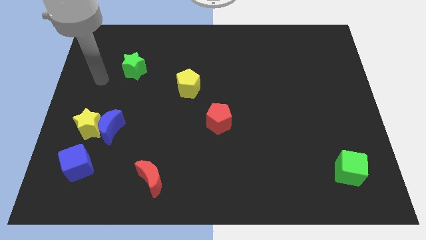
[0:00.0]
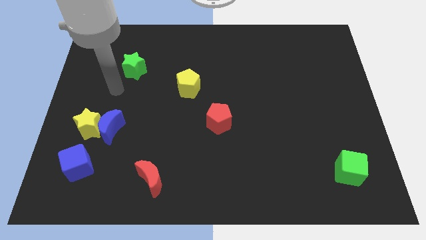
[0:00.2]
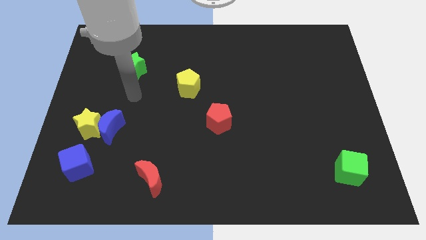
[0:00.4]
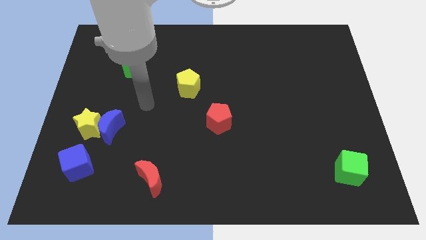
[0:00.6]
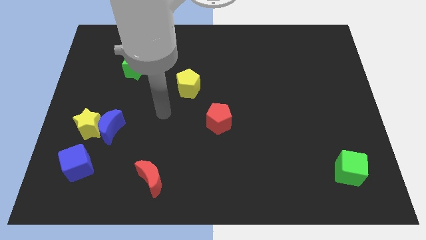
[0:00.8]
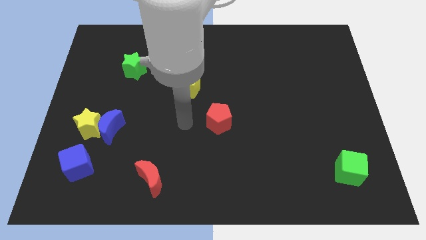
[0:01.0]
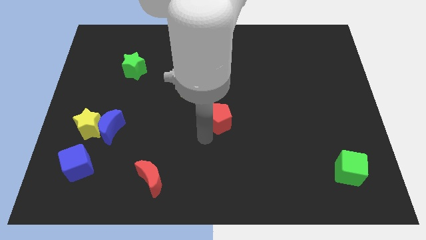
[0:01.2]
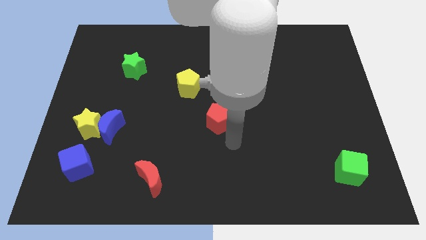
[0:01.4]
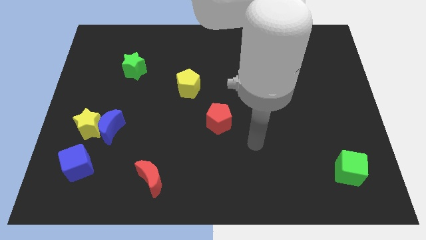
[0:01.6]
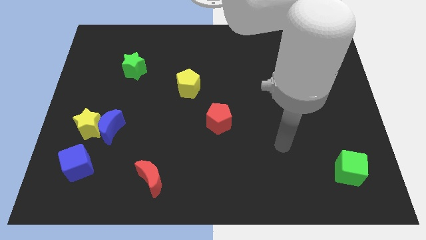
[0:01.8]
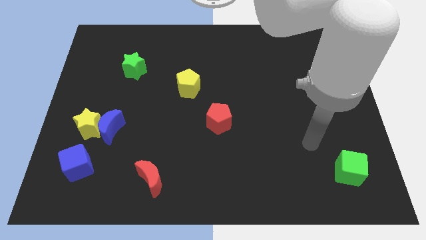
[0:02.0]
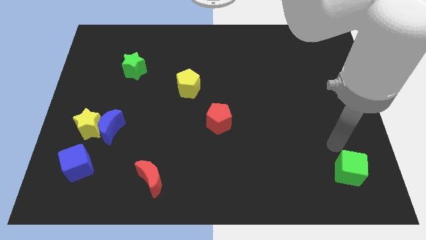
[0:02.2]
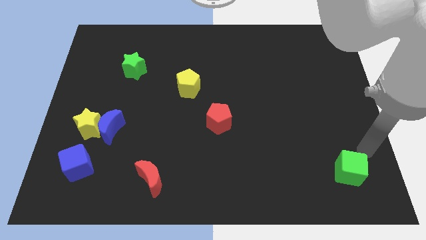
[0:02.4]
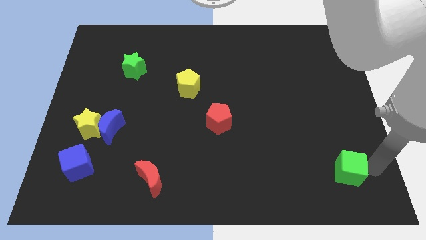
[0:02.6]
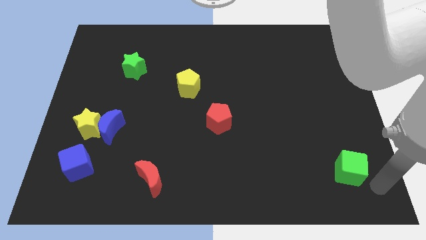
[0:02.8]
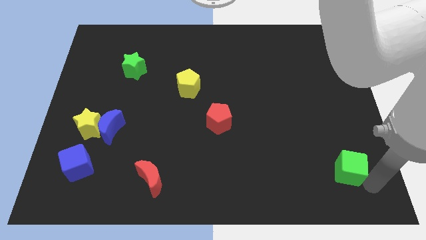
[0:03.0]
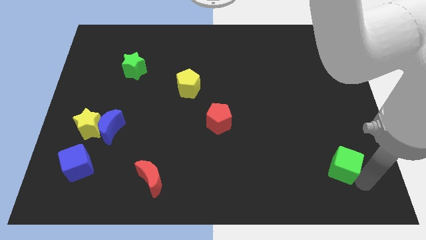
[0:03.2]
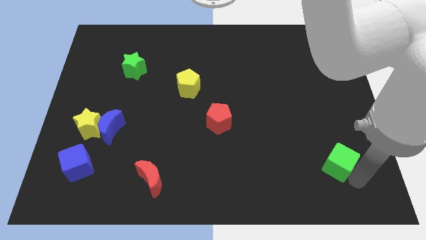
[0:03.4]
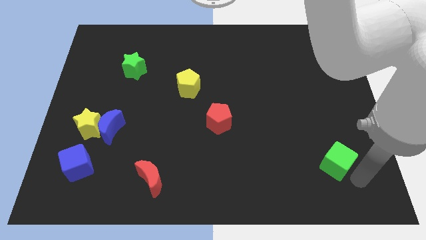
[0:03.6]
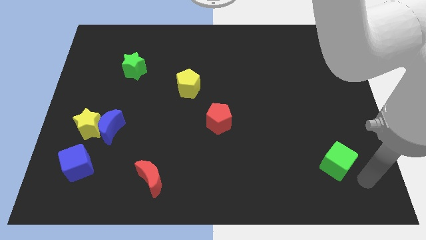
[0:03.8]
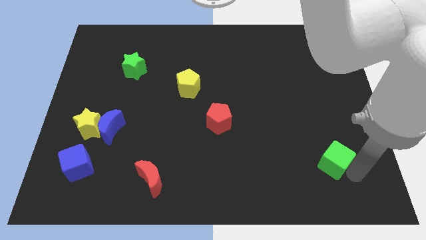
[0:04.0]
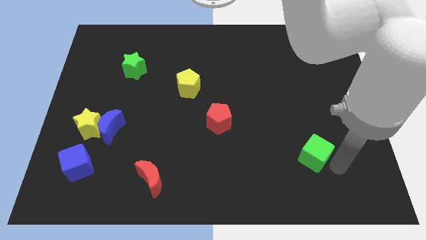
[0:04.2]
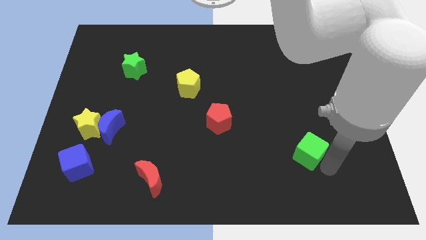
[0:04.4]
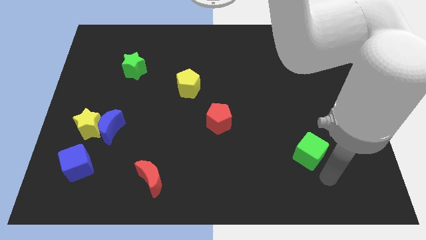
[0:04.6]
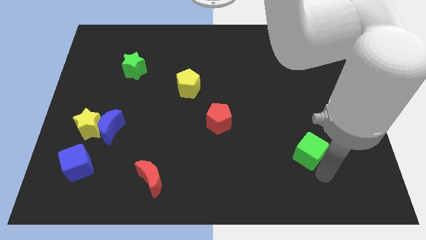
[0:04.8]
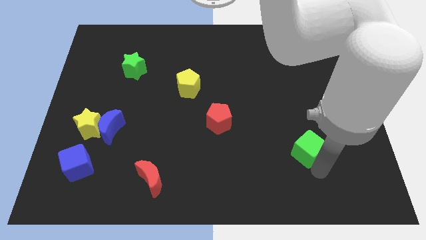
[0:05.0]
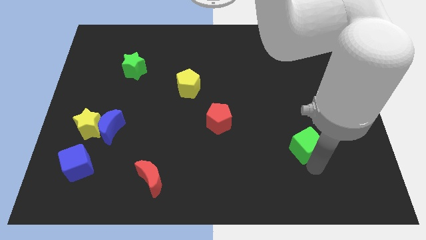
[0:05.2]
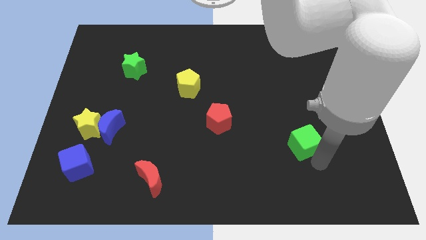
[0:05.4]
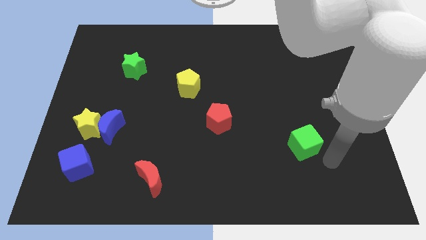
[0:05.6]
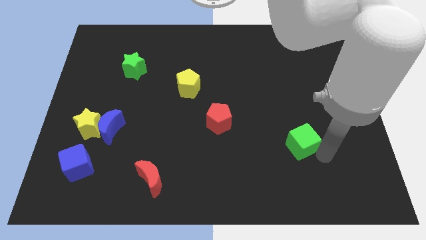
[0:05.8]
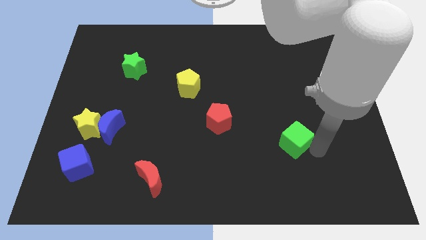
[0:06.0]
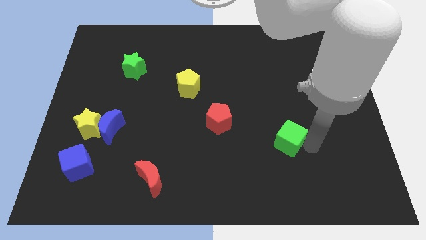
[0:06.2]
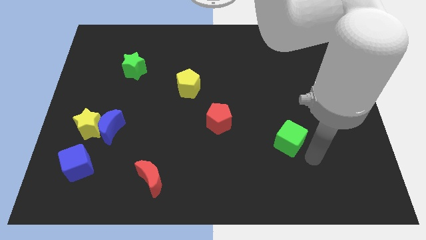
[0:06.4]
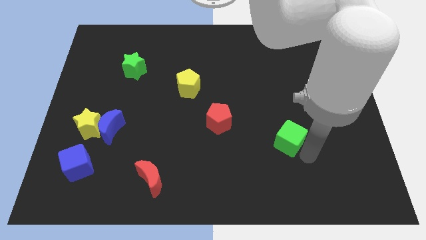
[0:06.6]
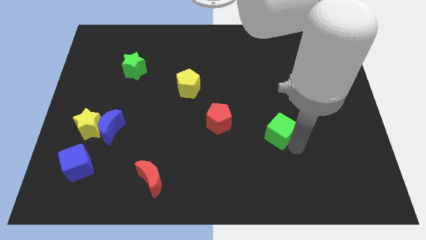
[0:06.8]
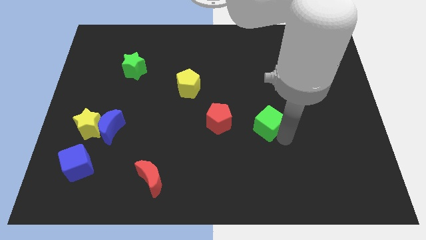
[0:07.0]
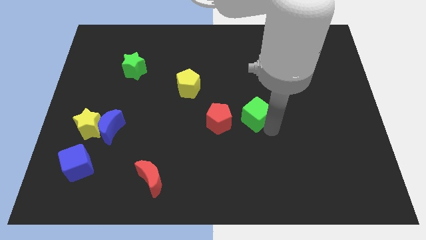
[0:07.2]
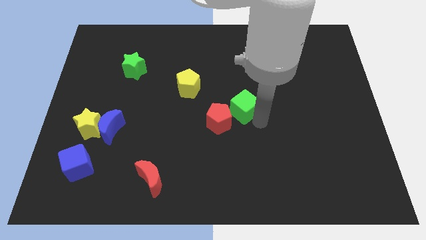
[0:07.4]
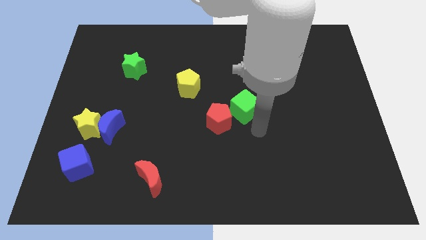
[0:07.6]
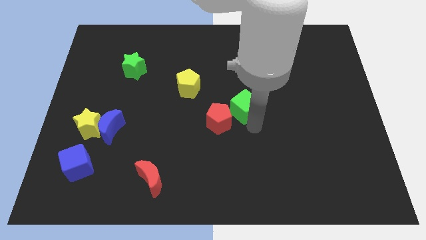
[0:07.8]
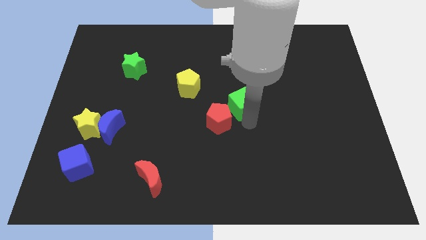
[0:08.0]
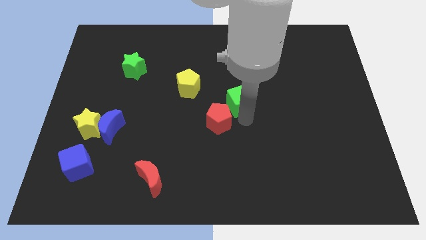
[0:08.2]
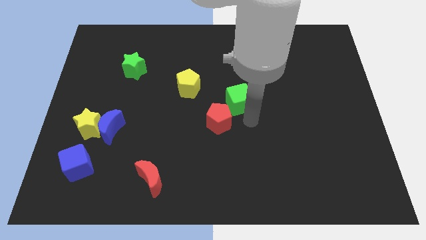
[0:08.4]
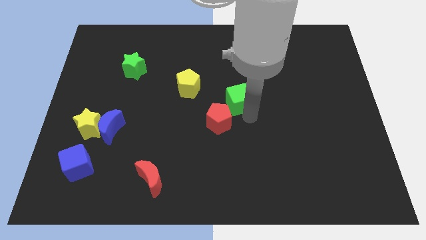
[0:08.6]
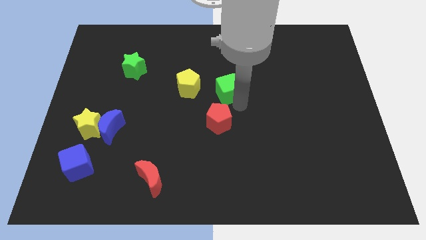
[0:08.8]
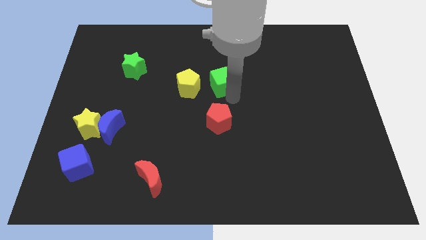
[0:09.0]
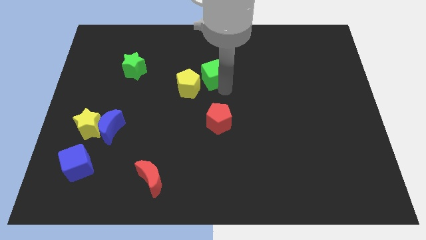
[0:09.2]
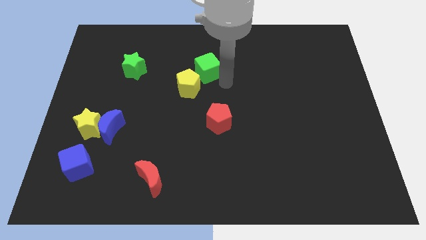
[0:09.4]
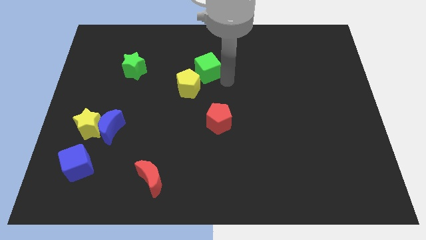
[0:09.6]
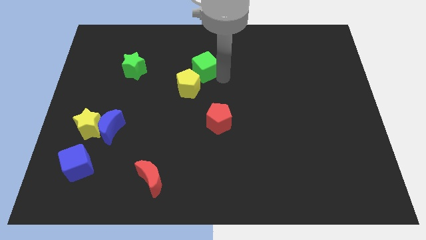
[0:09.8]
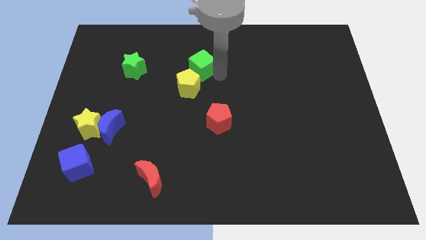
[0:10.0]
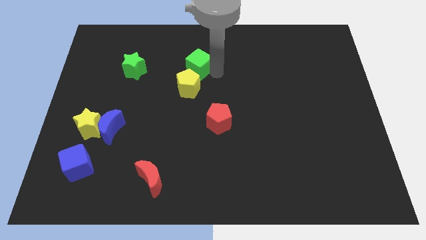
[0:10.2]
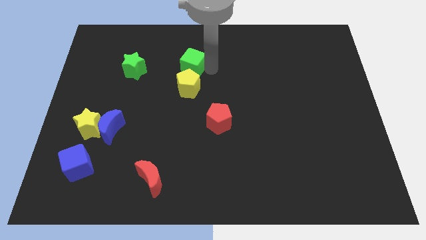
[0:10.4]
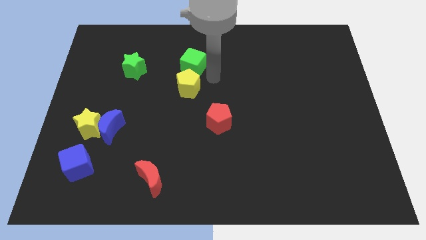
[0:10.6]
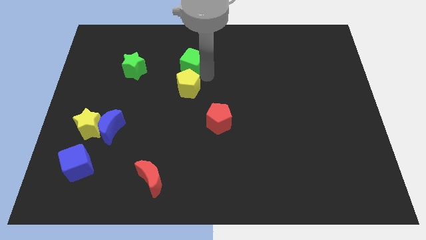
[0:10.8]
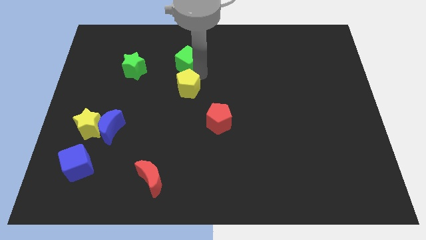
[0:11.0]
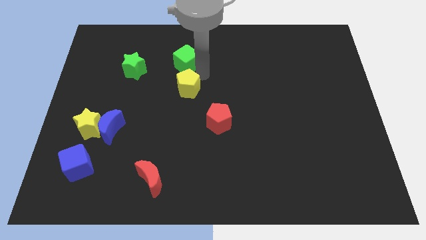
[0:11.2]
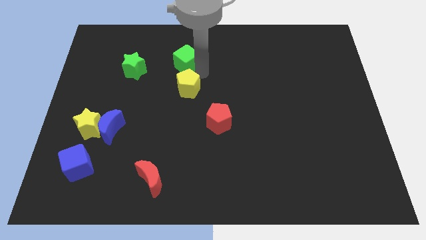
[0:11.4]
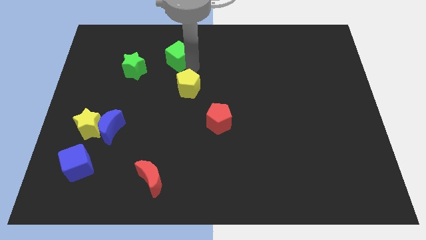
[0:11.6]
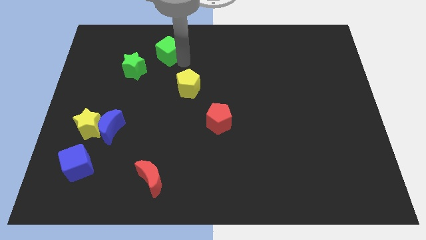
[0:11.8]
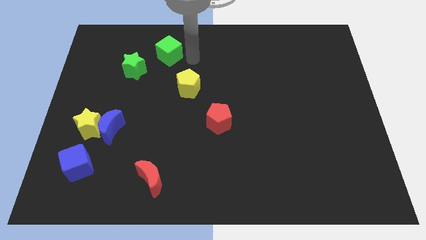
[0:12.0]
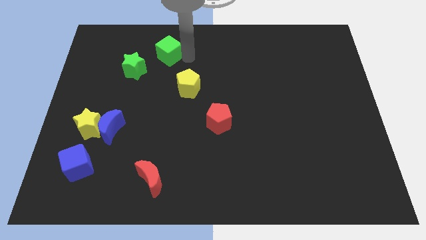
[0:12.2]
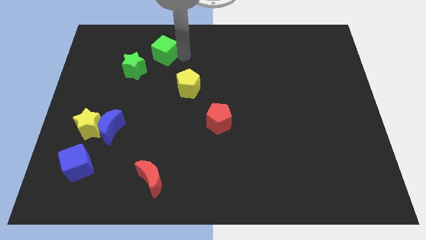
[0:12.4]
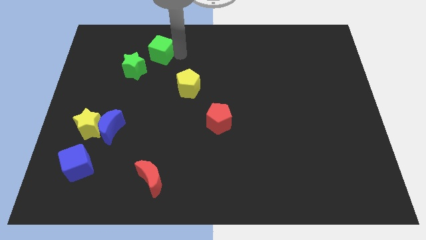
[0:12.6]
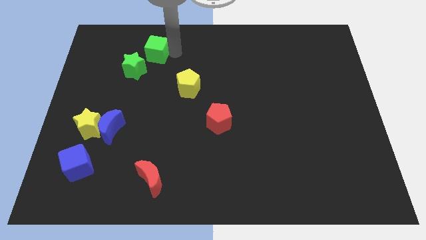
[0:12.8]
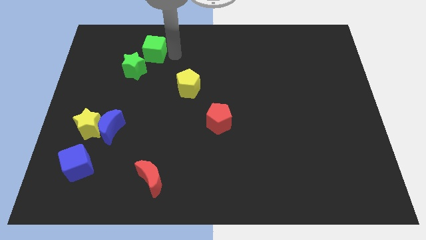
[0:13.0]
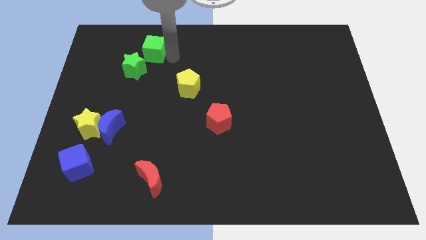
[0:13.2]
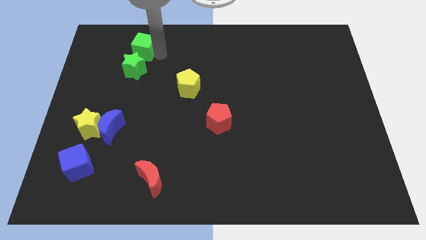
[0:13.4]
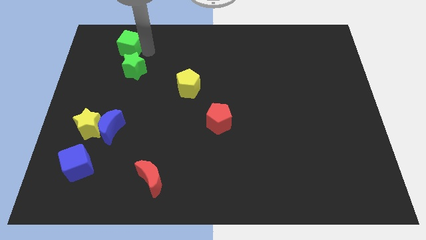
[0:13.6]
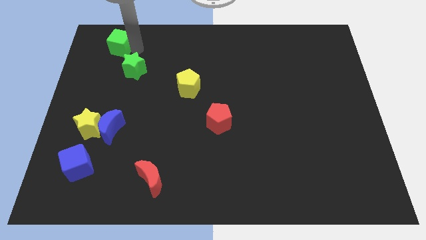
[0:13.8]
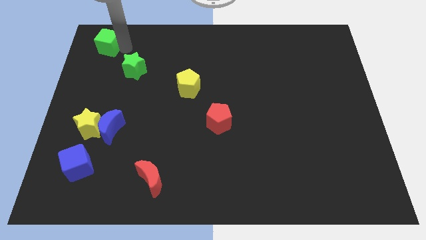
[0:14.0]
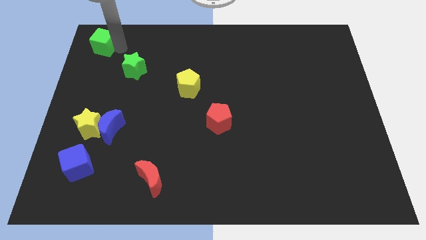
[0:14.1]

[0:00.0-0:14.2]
move the green cube to the top left of the board
